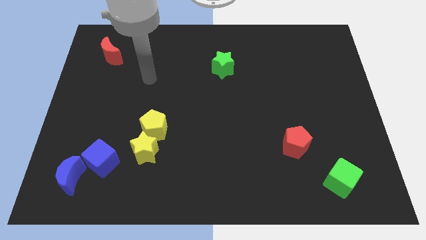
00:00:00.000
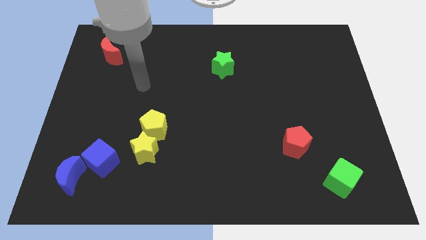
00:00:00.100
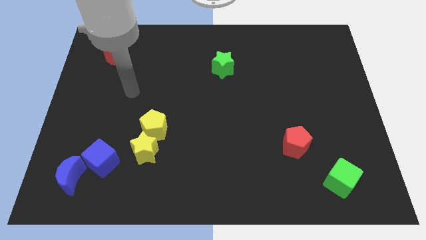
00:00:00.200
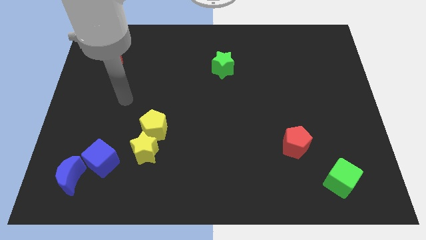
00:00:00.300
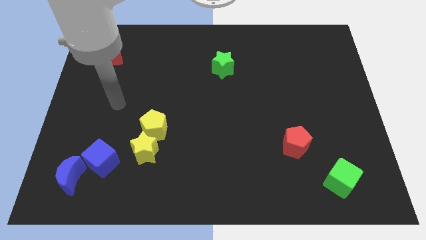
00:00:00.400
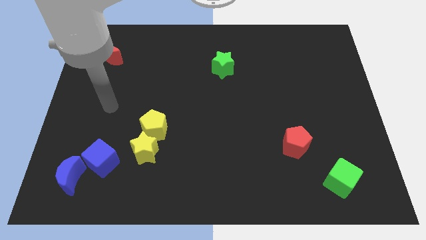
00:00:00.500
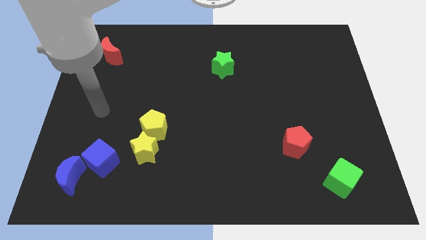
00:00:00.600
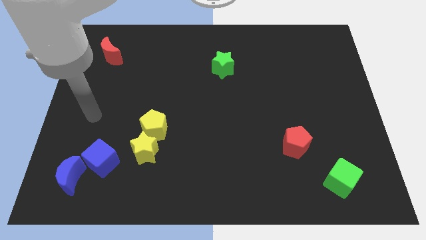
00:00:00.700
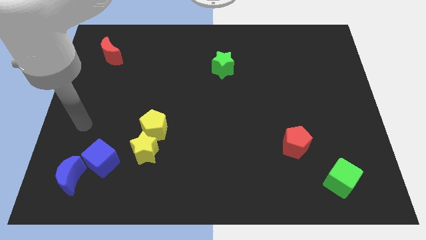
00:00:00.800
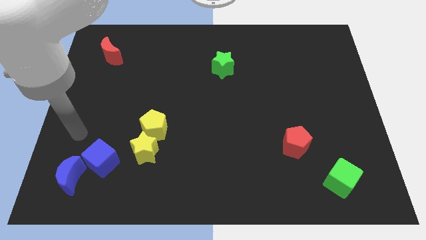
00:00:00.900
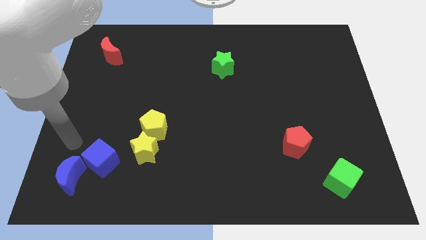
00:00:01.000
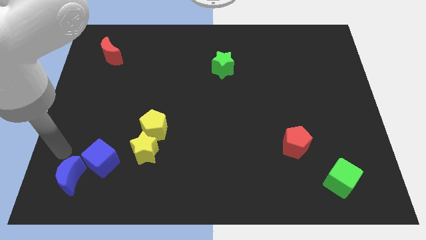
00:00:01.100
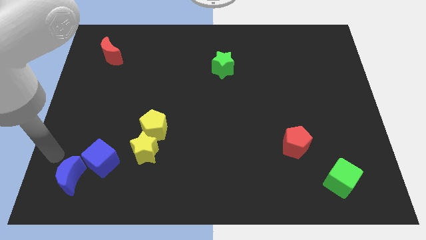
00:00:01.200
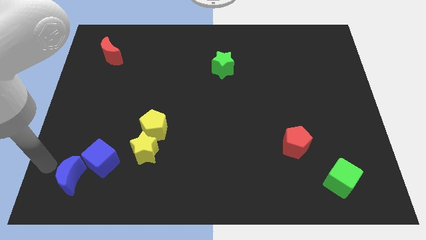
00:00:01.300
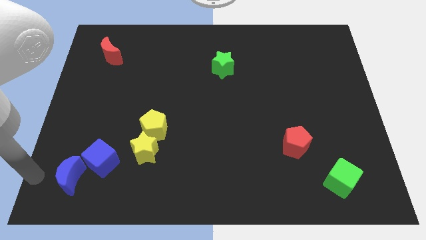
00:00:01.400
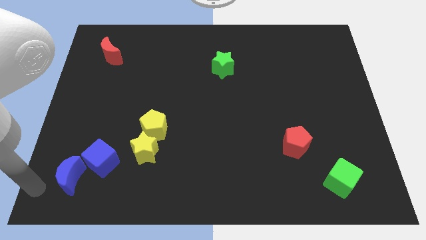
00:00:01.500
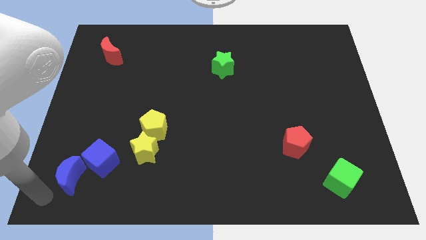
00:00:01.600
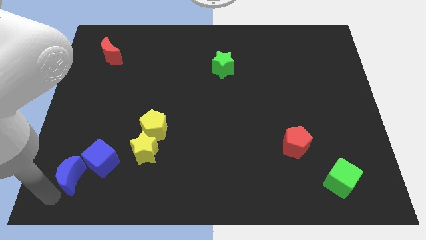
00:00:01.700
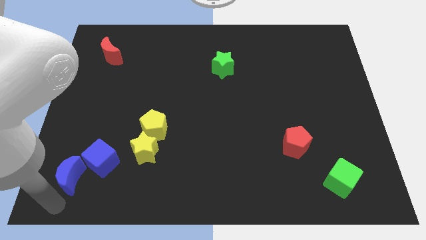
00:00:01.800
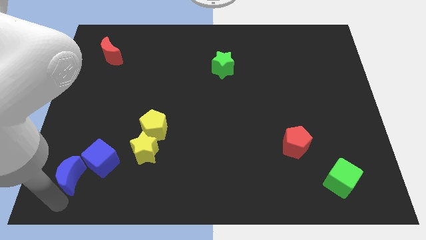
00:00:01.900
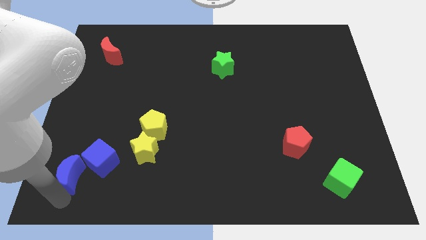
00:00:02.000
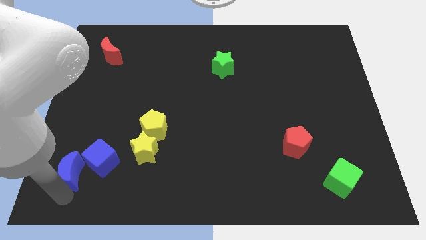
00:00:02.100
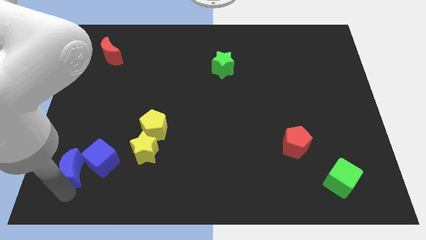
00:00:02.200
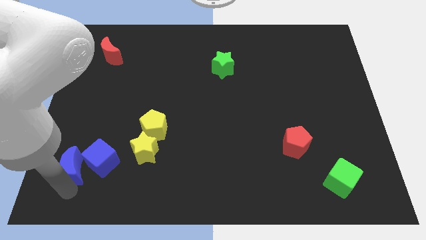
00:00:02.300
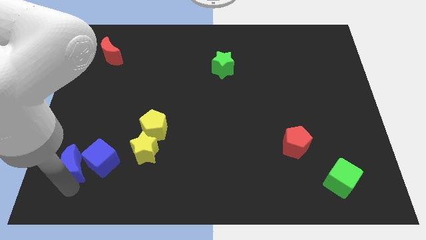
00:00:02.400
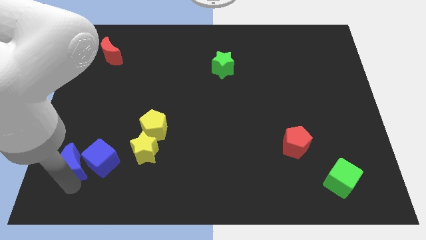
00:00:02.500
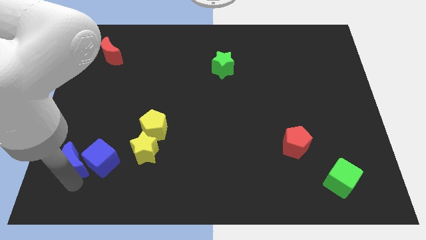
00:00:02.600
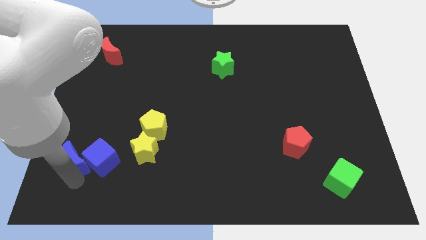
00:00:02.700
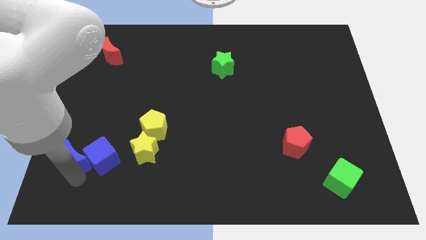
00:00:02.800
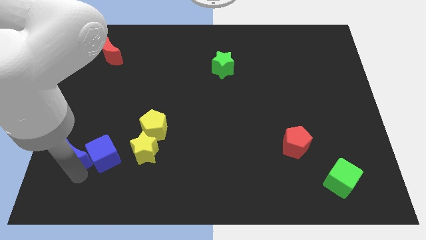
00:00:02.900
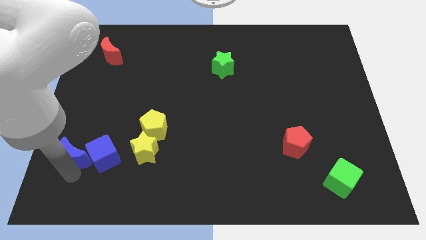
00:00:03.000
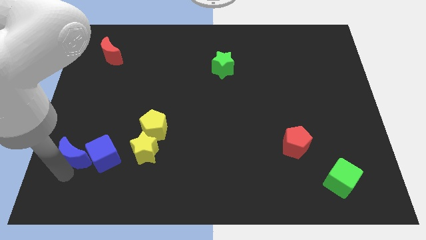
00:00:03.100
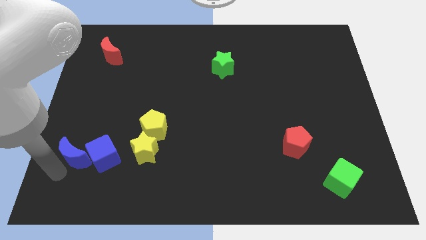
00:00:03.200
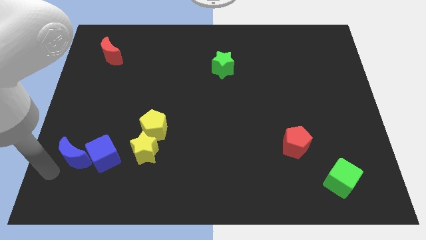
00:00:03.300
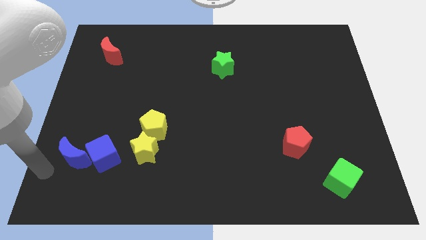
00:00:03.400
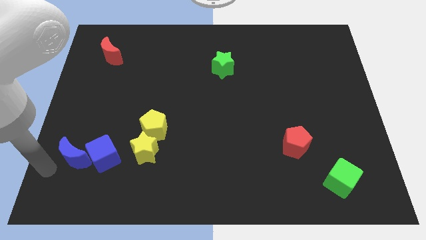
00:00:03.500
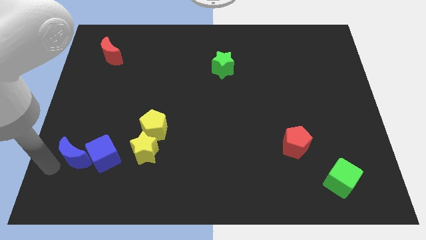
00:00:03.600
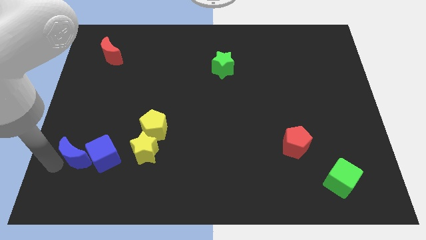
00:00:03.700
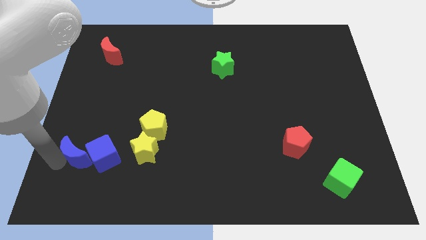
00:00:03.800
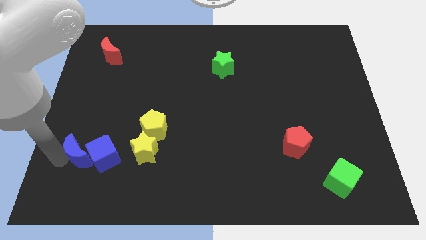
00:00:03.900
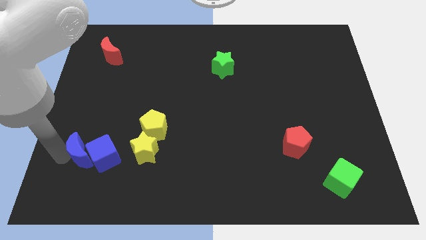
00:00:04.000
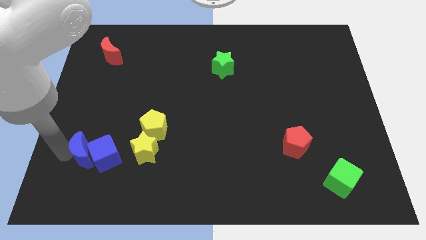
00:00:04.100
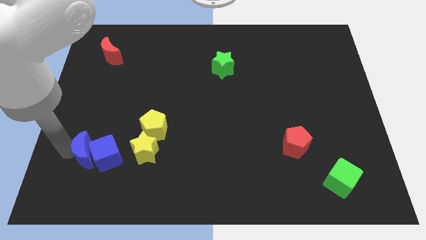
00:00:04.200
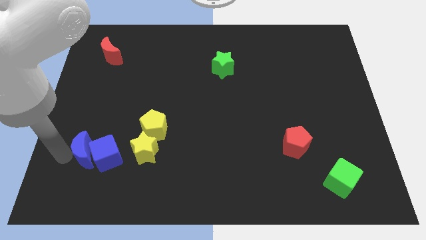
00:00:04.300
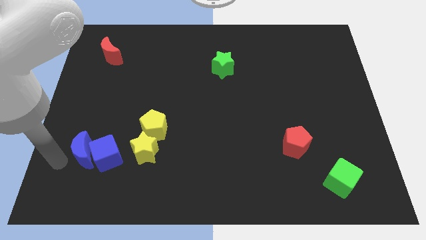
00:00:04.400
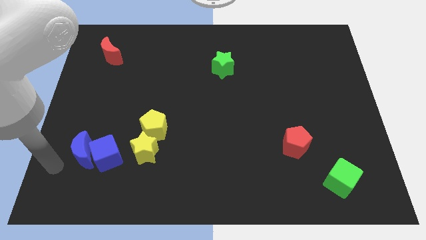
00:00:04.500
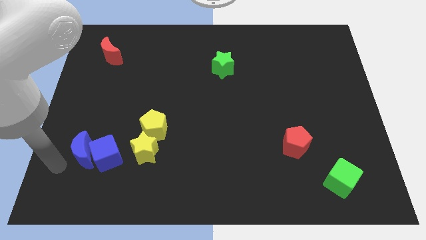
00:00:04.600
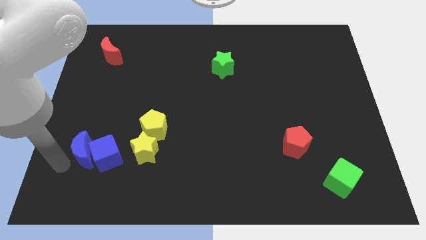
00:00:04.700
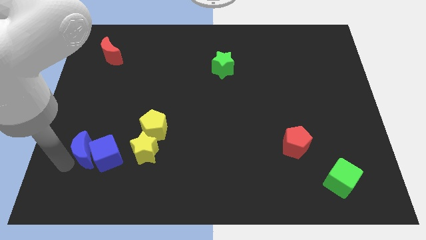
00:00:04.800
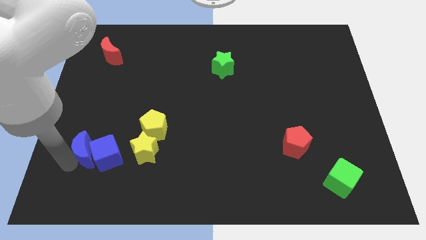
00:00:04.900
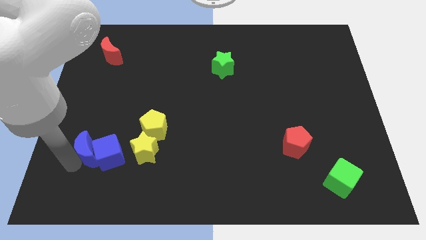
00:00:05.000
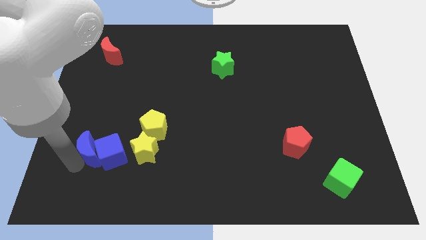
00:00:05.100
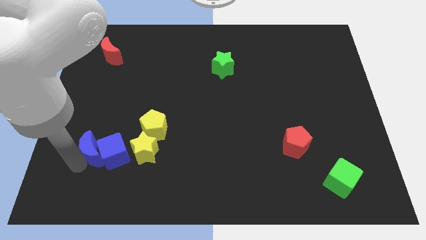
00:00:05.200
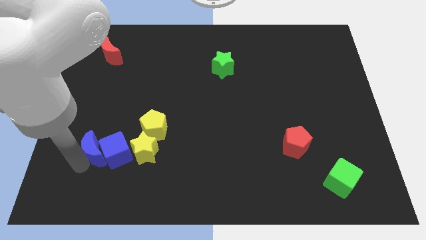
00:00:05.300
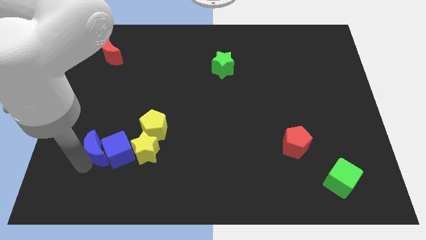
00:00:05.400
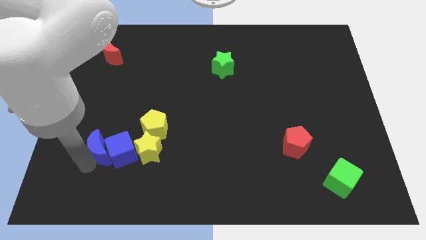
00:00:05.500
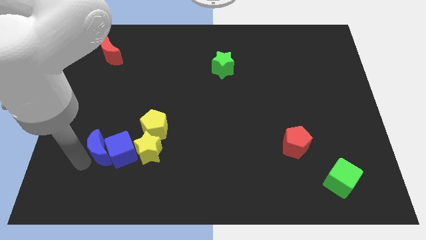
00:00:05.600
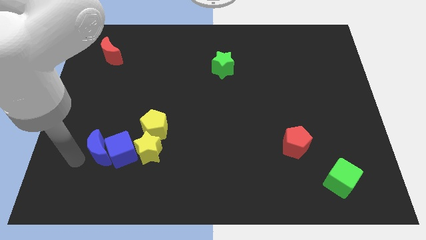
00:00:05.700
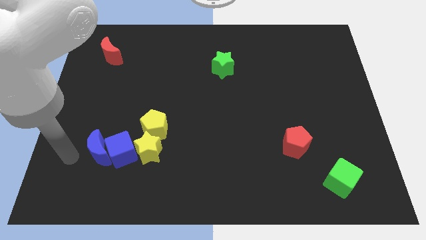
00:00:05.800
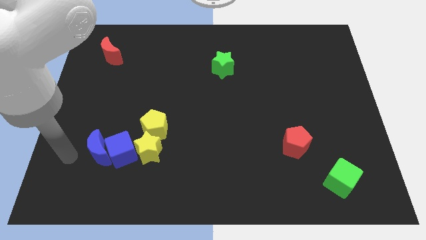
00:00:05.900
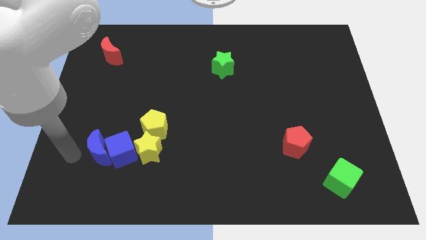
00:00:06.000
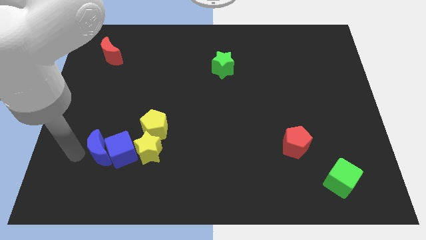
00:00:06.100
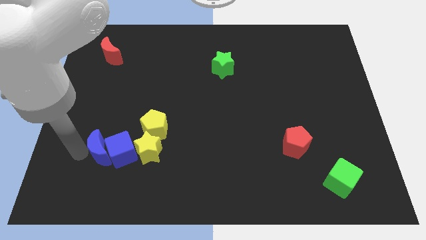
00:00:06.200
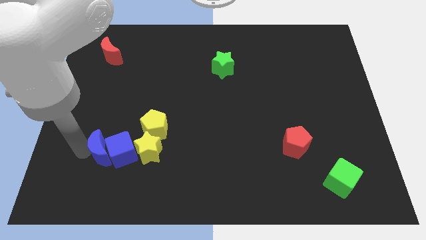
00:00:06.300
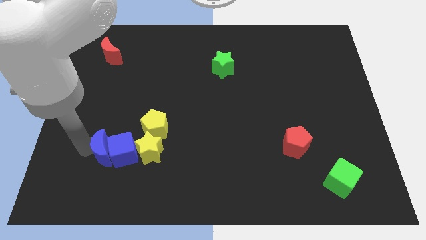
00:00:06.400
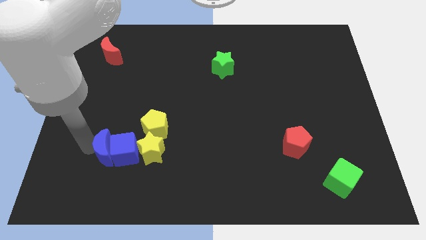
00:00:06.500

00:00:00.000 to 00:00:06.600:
move the blue moon to the bottom left side of the yellow pentagon
